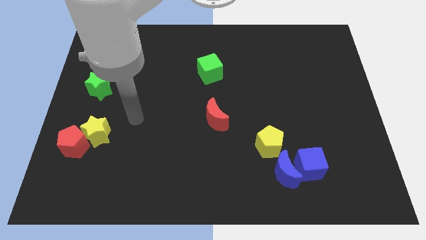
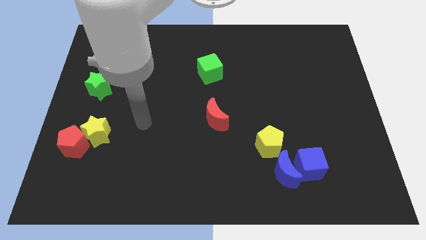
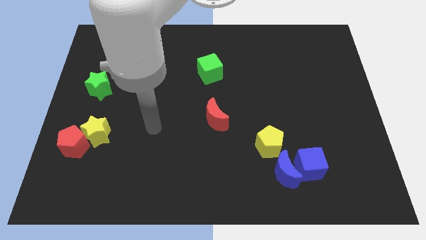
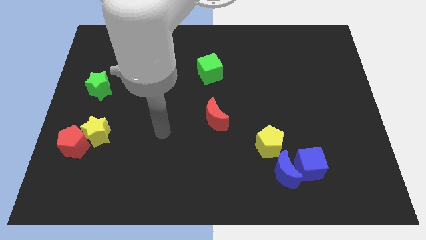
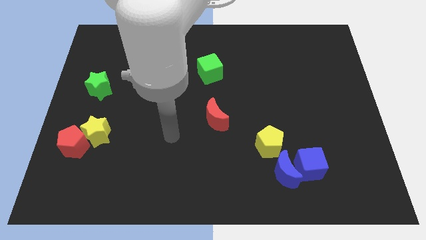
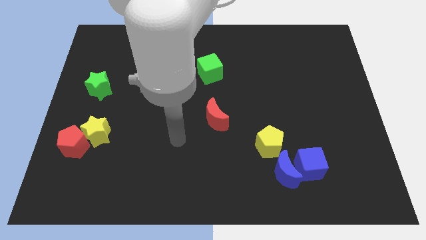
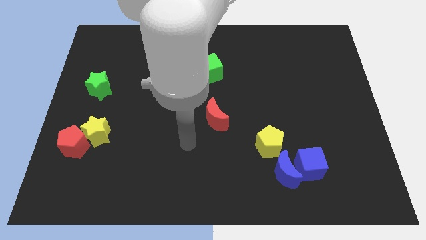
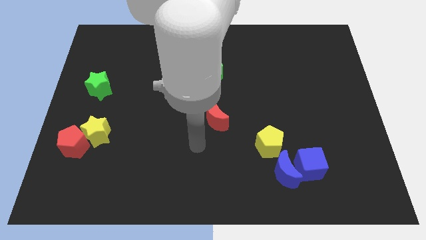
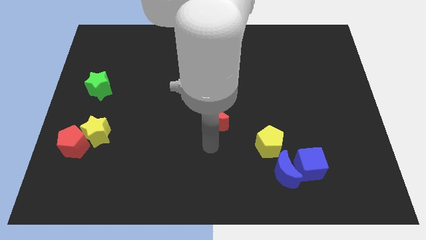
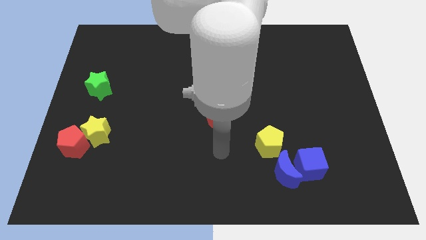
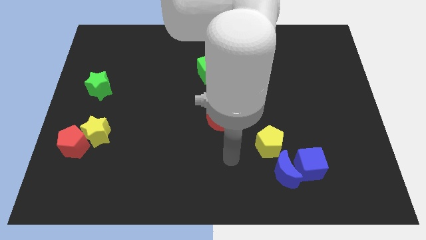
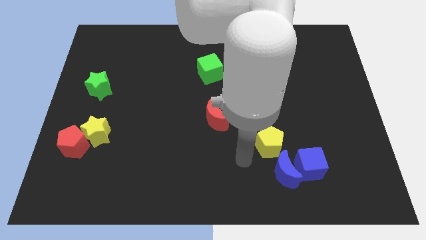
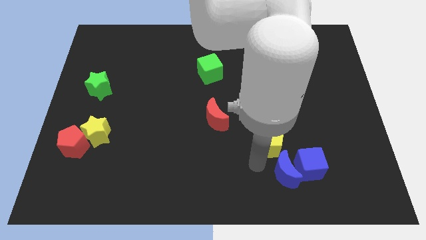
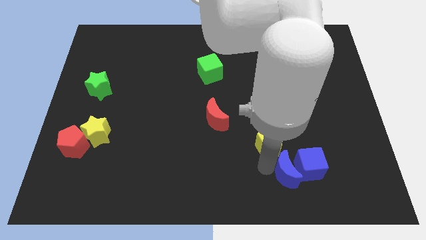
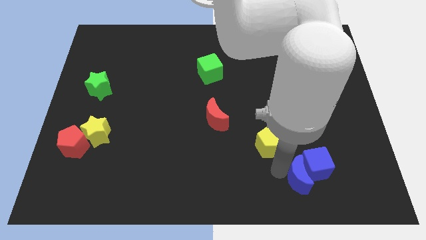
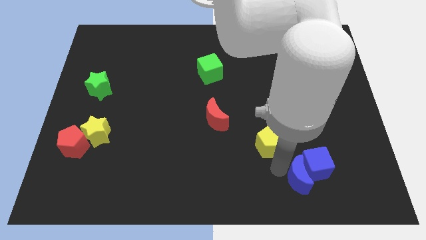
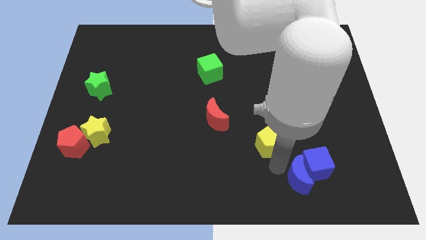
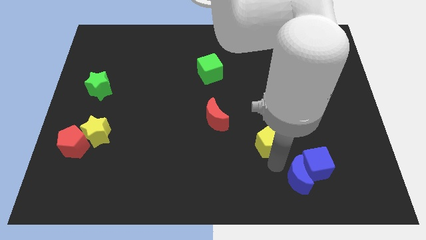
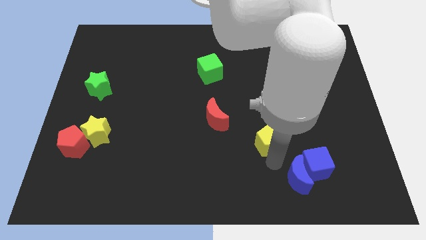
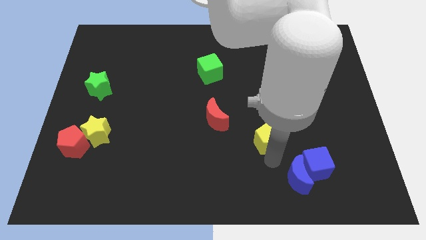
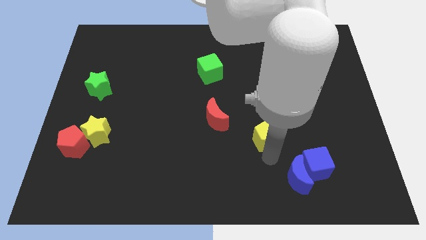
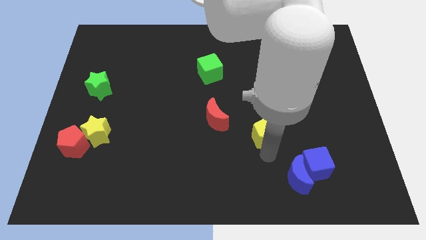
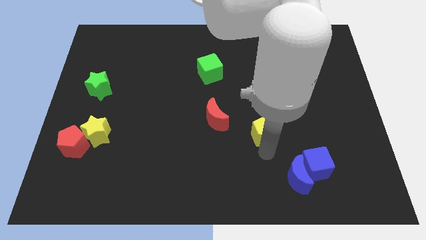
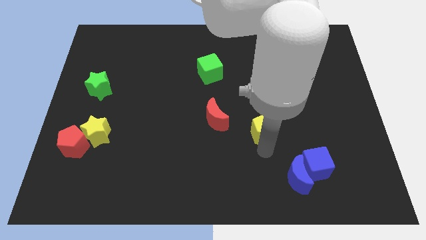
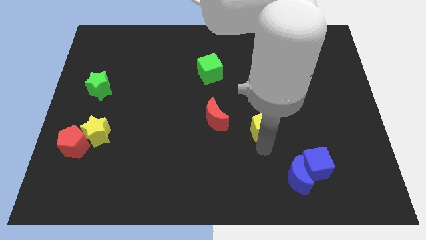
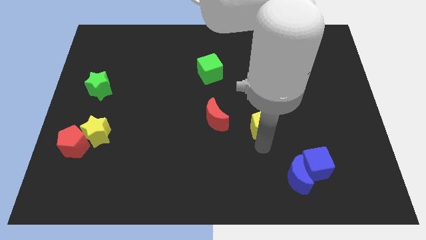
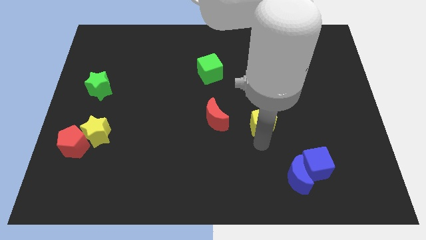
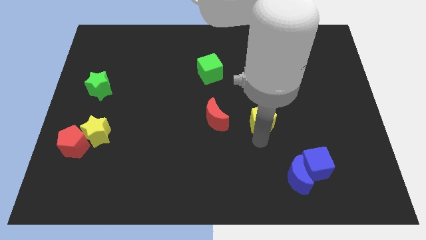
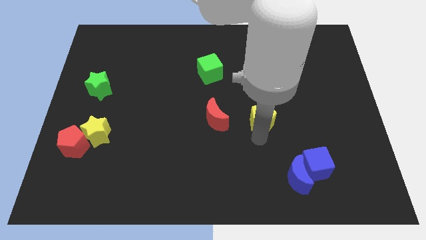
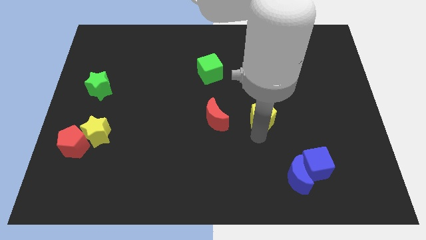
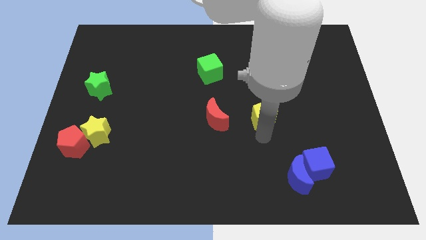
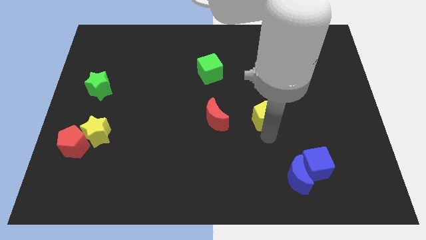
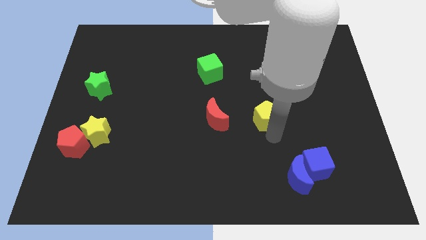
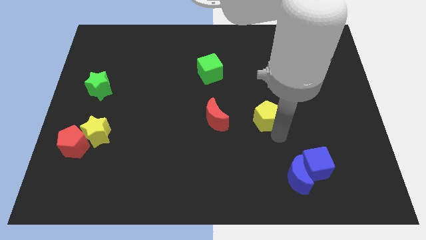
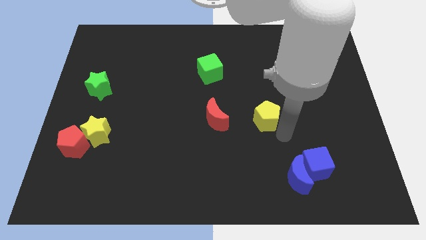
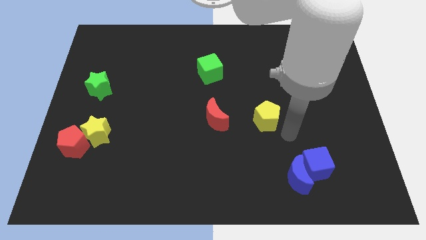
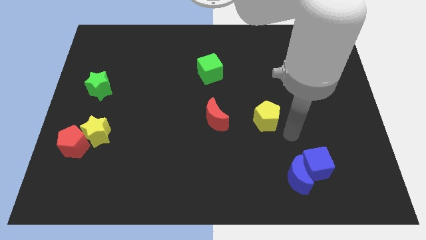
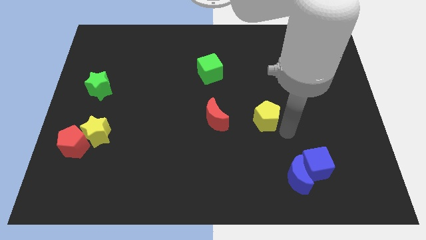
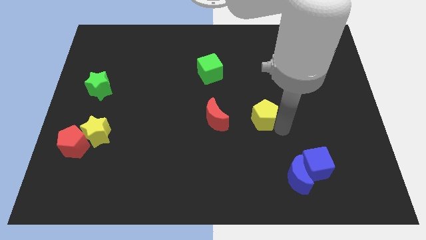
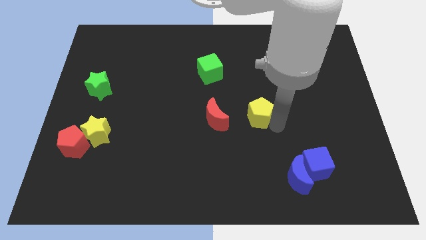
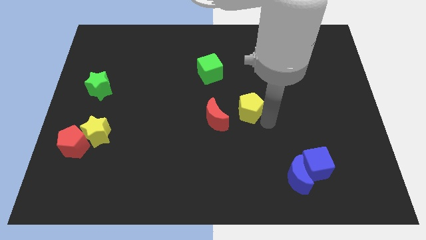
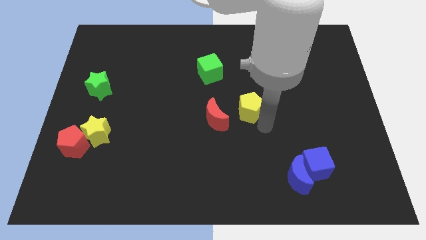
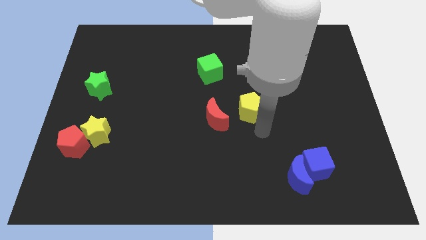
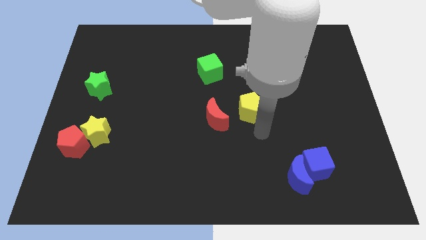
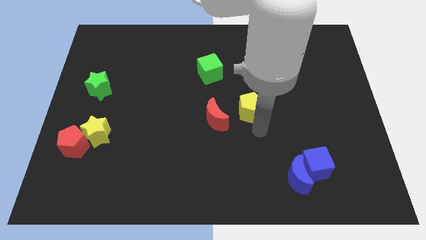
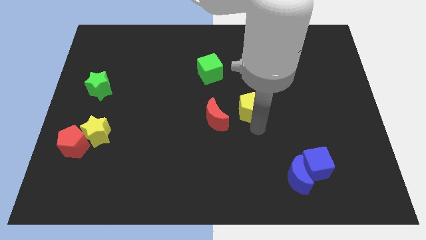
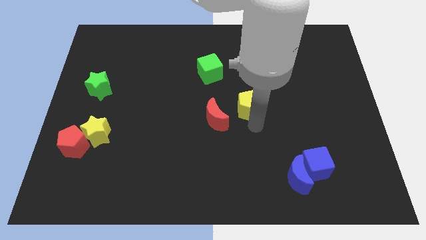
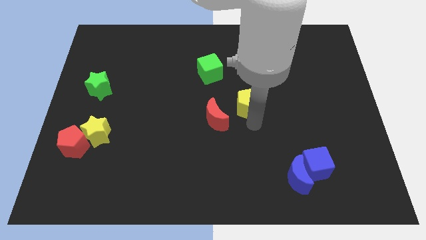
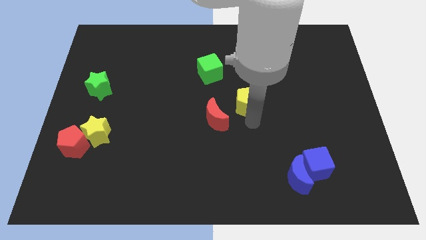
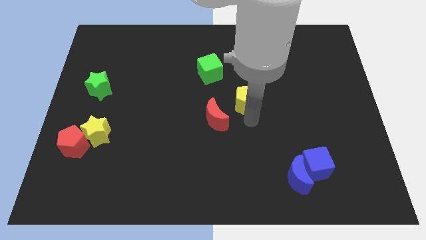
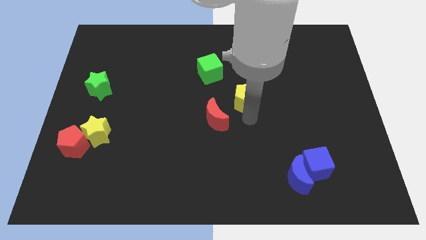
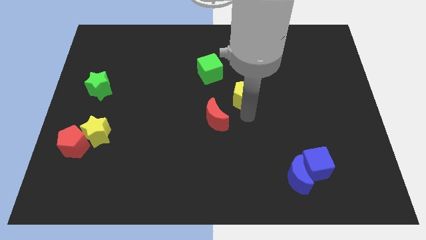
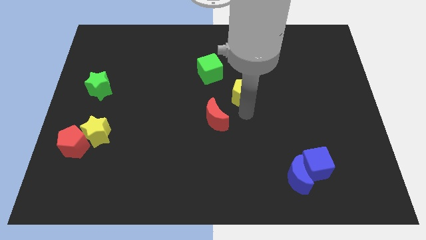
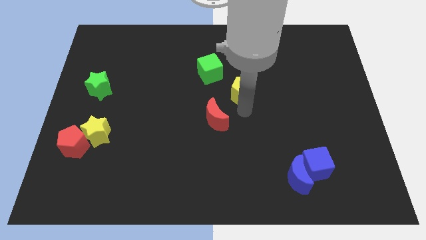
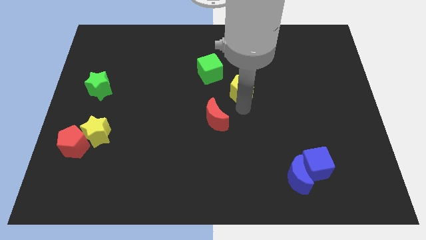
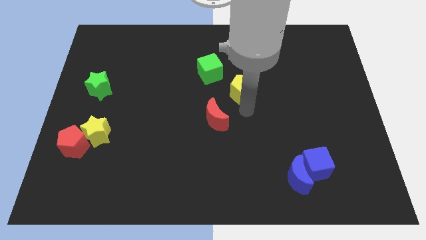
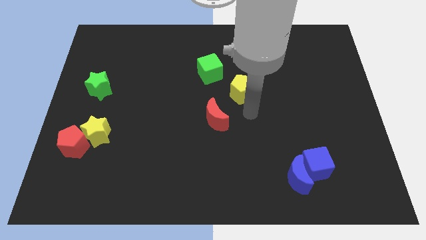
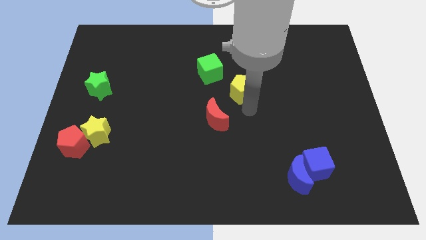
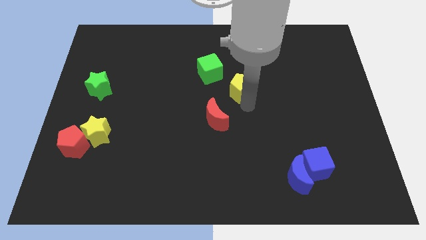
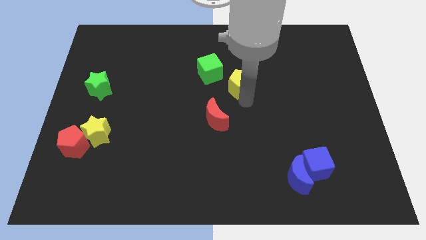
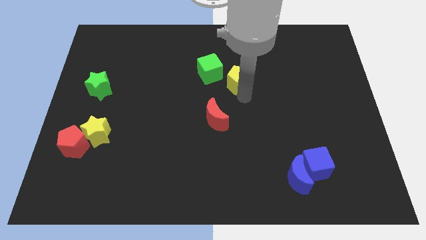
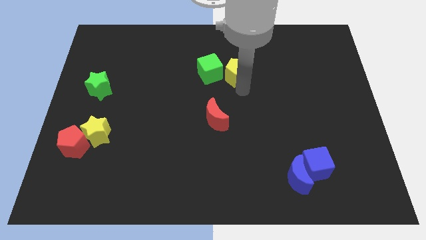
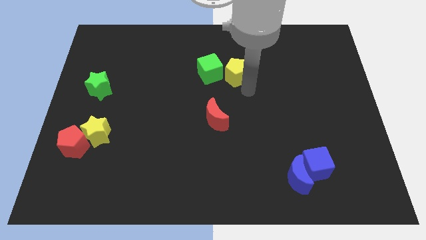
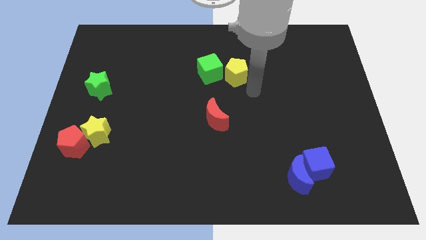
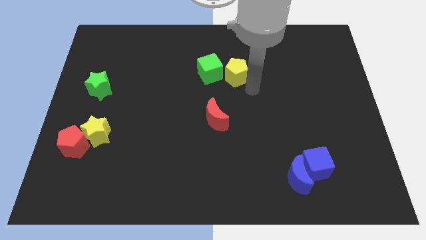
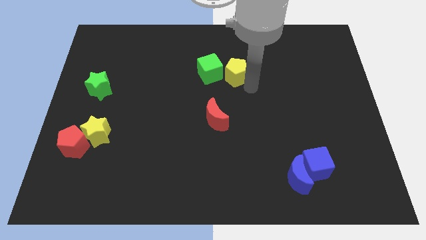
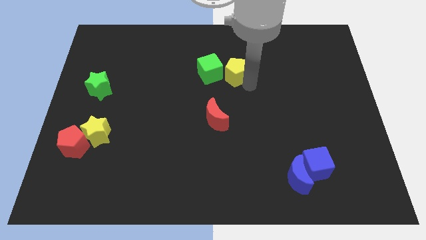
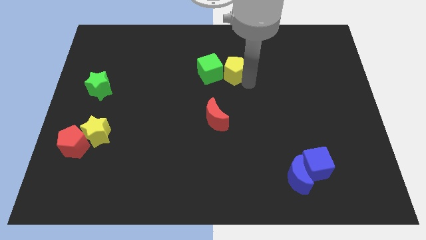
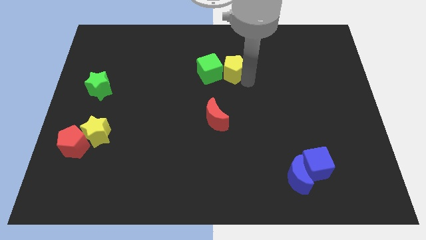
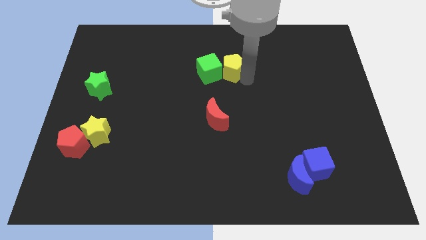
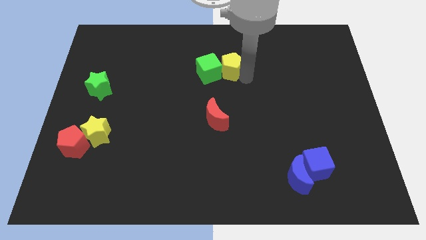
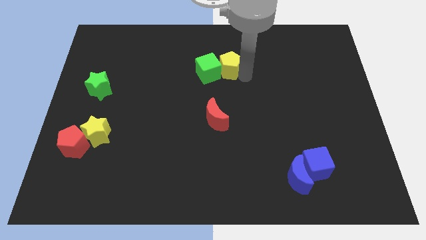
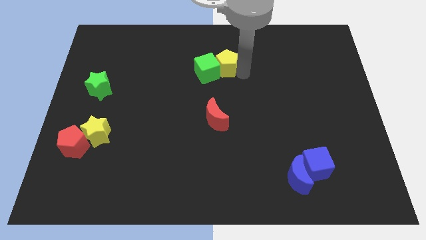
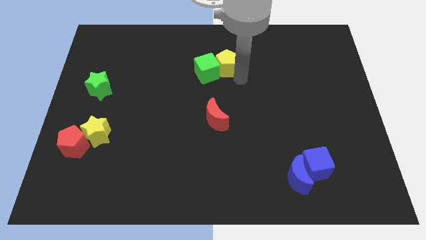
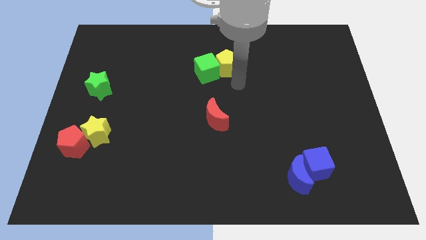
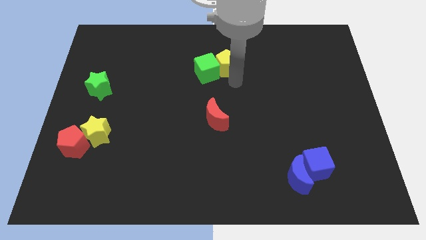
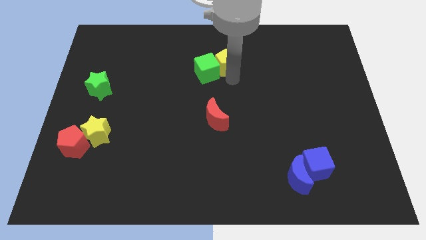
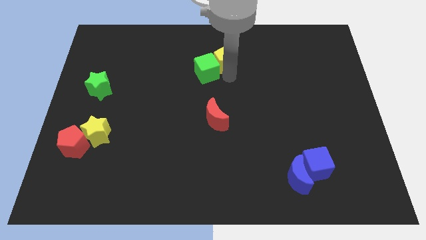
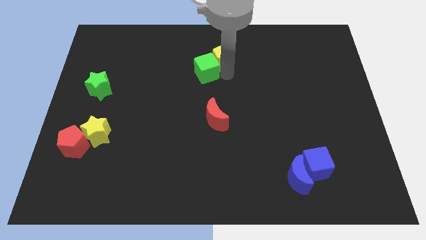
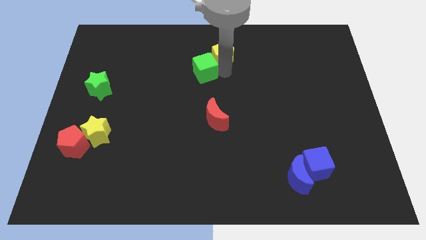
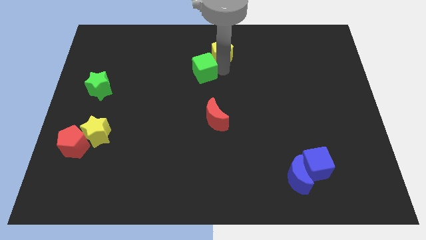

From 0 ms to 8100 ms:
move the yellow pentagon to the top side
